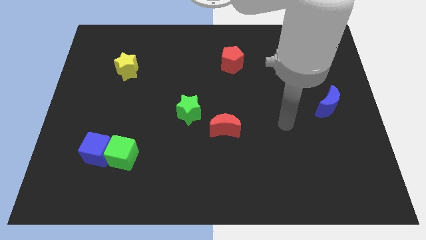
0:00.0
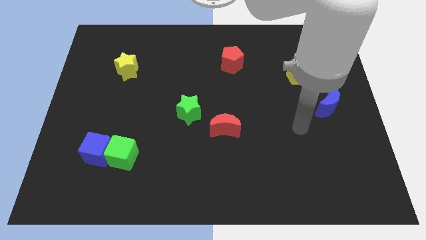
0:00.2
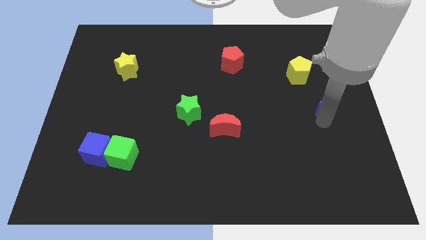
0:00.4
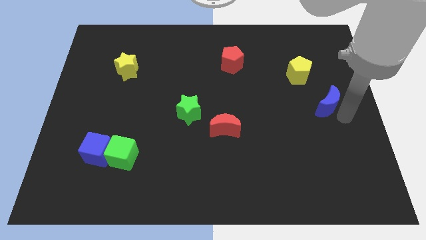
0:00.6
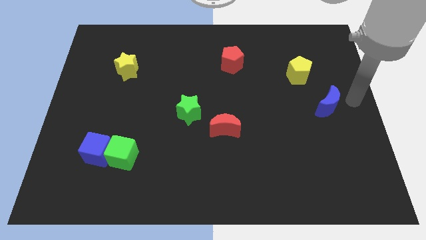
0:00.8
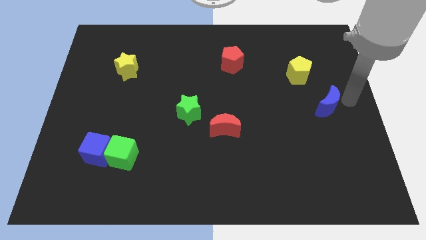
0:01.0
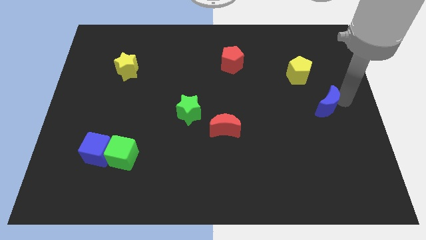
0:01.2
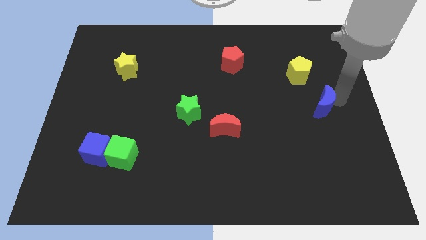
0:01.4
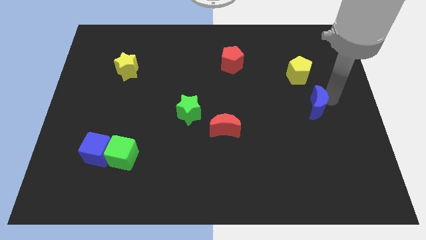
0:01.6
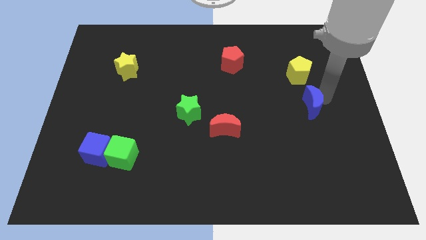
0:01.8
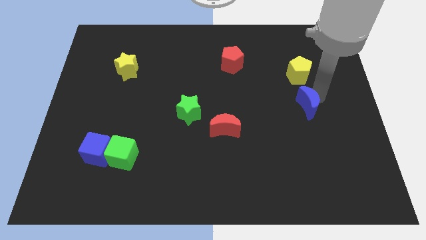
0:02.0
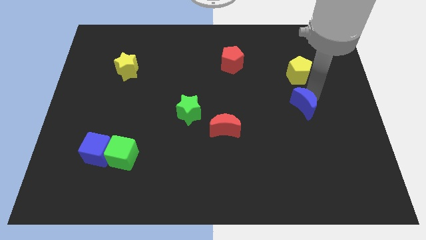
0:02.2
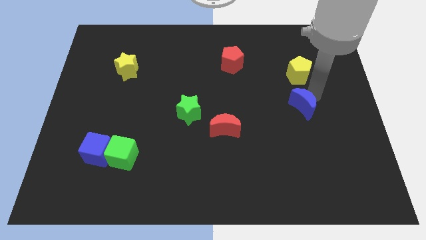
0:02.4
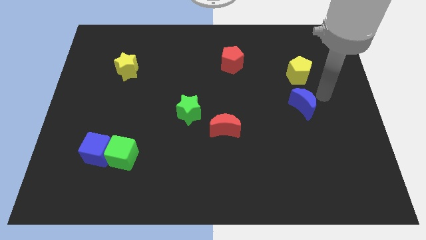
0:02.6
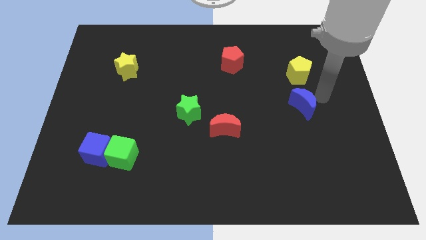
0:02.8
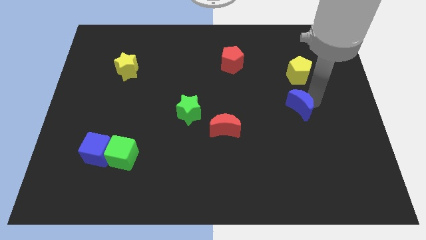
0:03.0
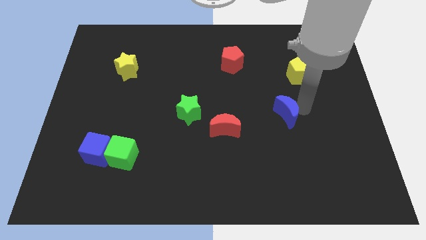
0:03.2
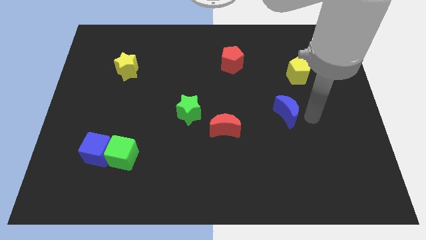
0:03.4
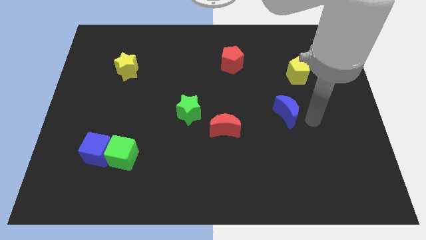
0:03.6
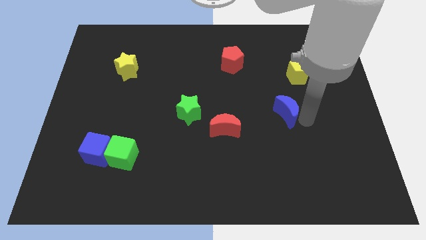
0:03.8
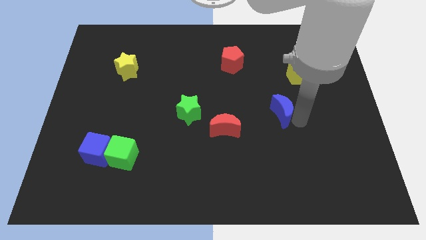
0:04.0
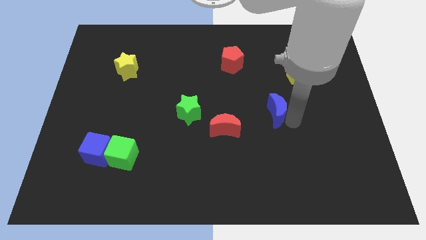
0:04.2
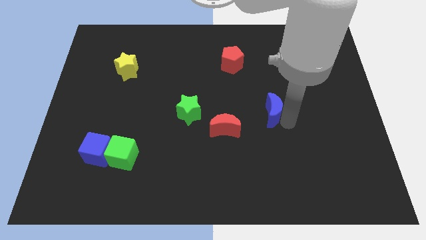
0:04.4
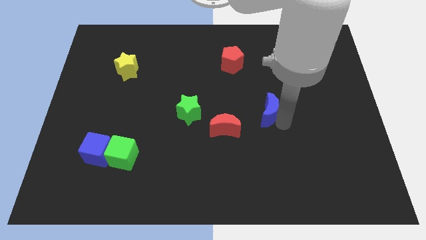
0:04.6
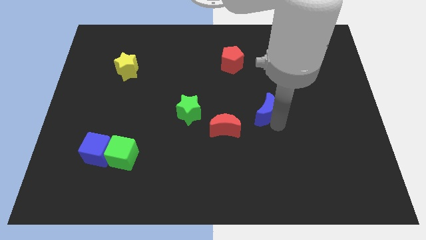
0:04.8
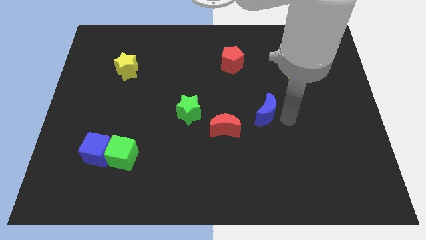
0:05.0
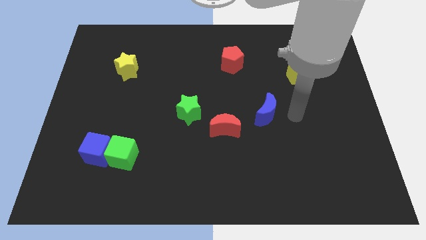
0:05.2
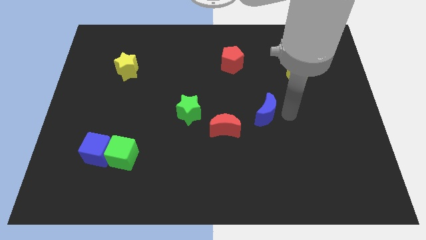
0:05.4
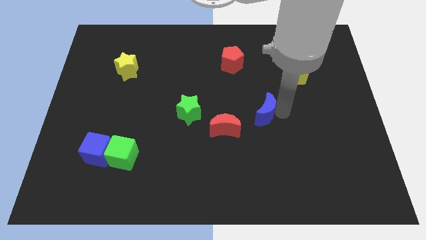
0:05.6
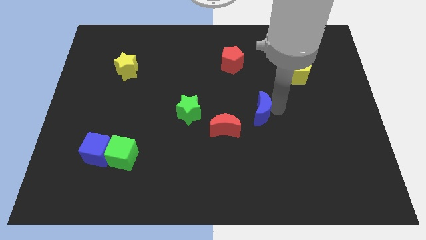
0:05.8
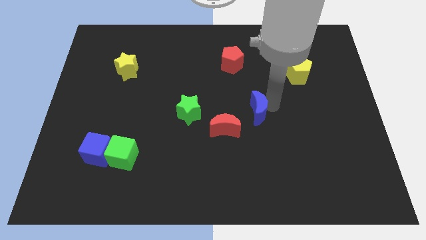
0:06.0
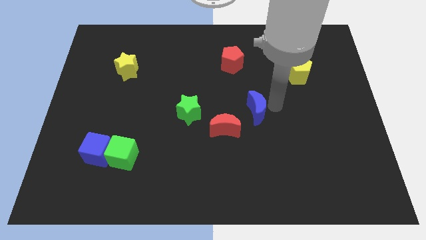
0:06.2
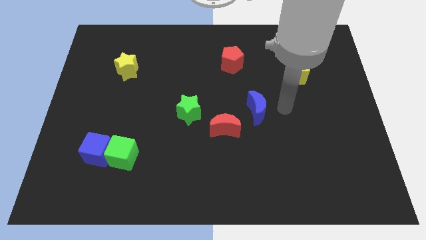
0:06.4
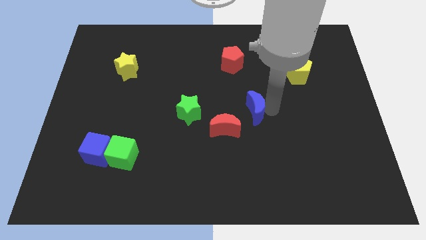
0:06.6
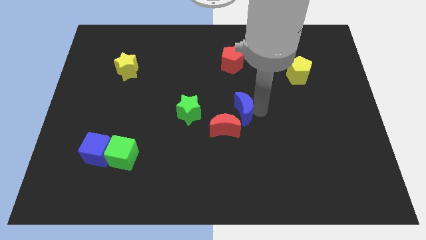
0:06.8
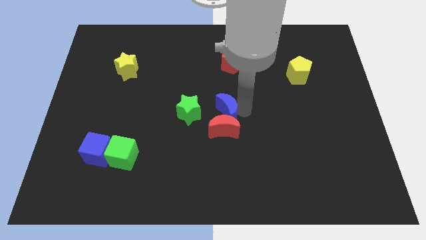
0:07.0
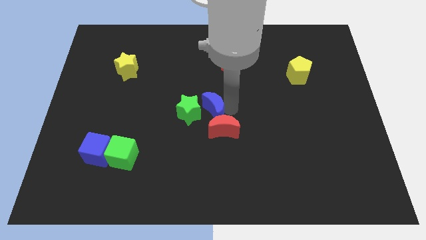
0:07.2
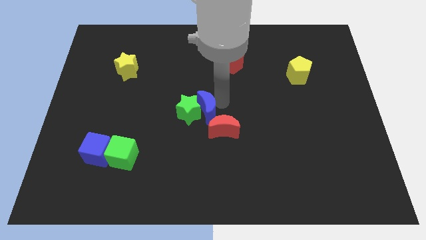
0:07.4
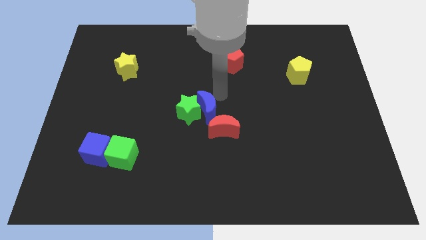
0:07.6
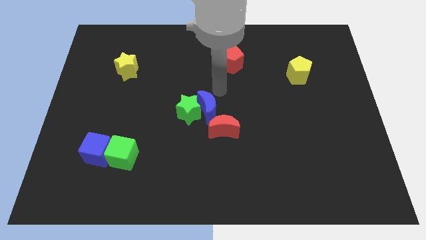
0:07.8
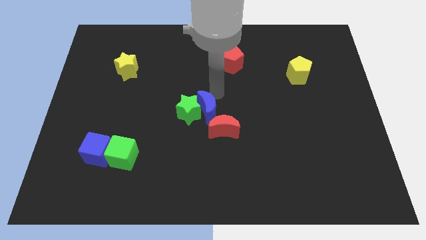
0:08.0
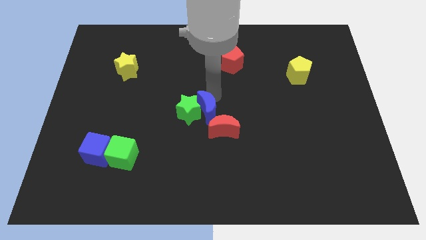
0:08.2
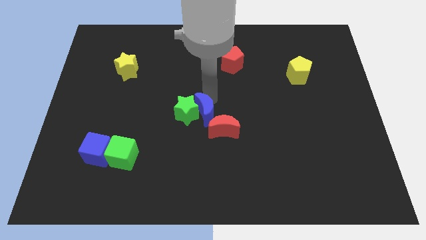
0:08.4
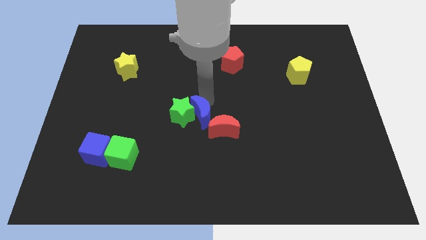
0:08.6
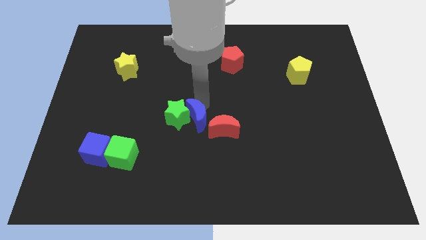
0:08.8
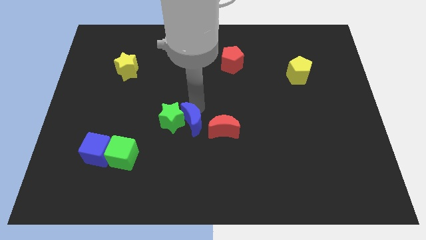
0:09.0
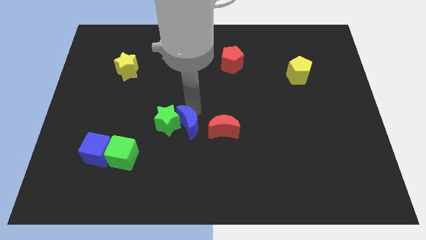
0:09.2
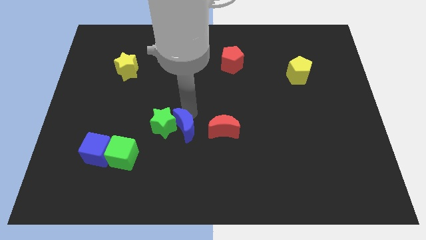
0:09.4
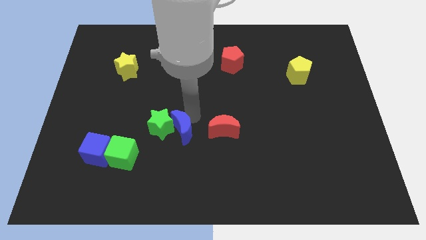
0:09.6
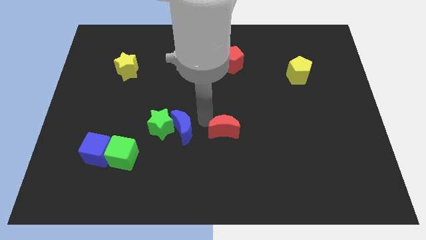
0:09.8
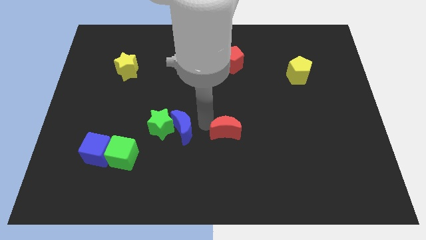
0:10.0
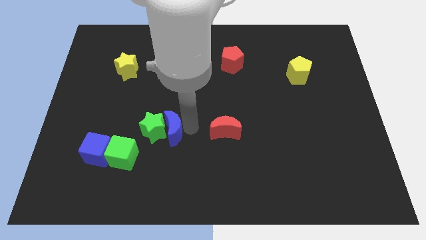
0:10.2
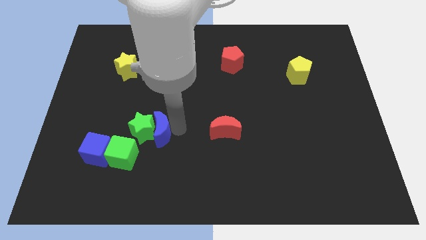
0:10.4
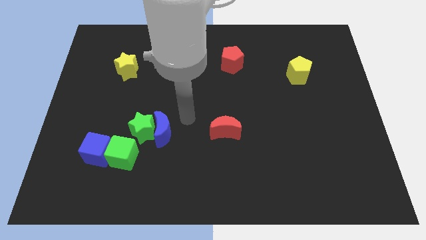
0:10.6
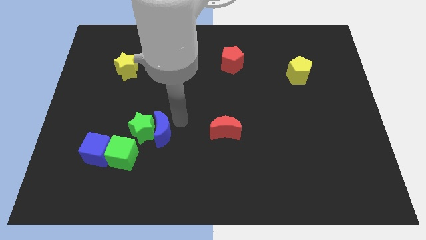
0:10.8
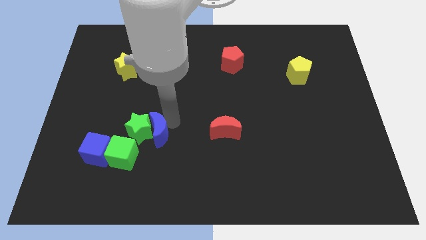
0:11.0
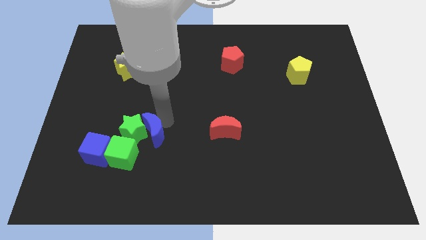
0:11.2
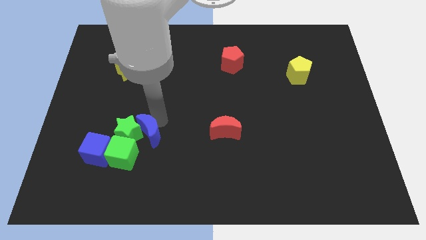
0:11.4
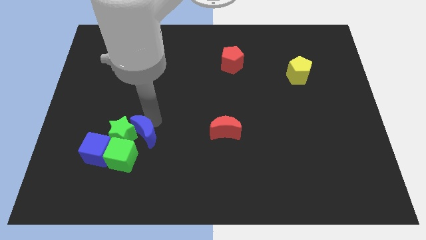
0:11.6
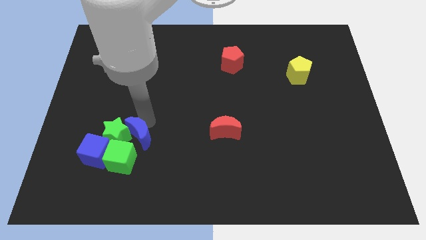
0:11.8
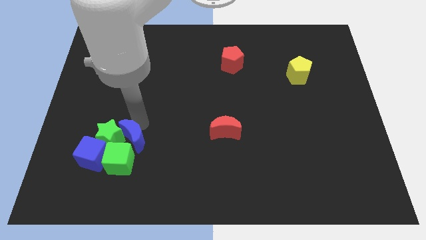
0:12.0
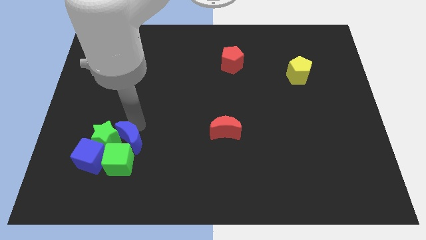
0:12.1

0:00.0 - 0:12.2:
push the blue moon to the green cube

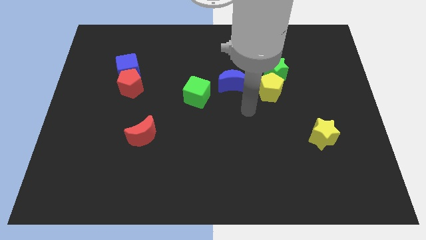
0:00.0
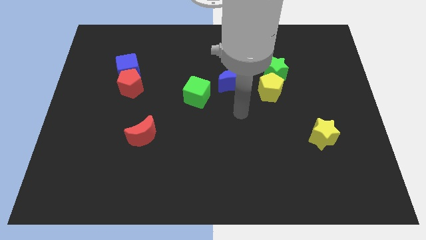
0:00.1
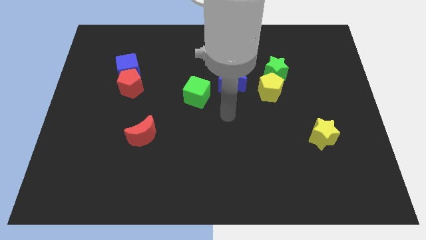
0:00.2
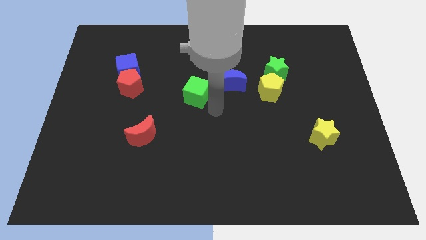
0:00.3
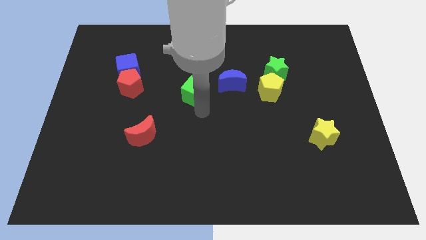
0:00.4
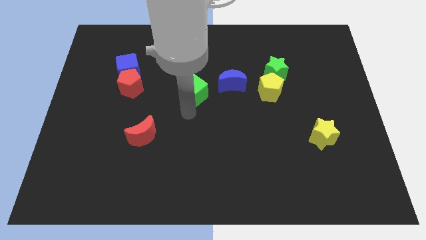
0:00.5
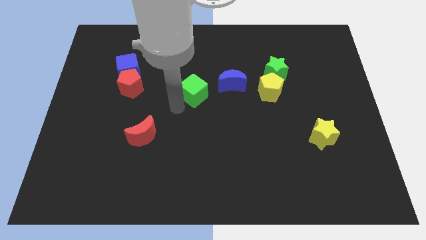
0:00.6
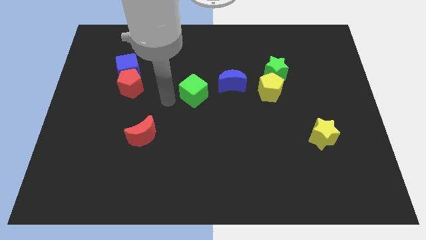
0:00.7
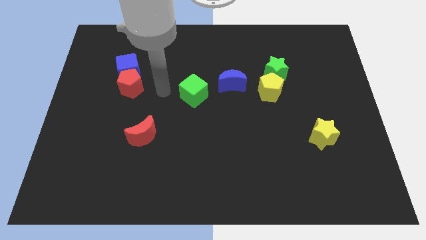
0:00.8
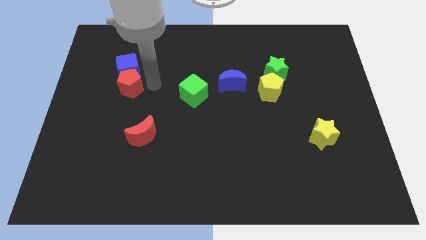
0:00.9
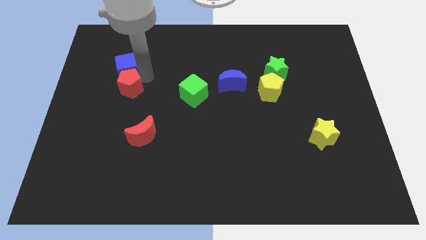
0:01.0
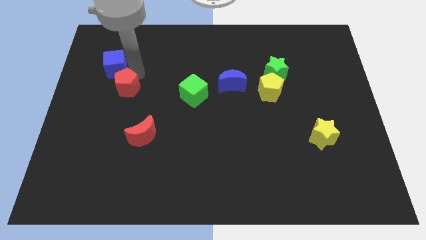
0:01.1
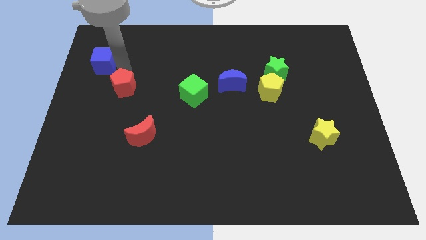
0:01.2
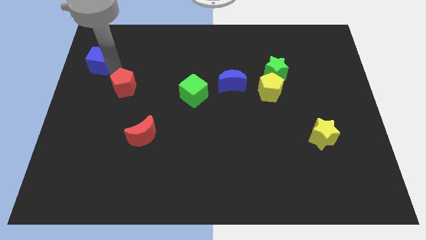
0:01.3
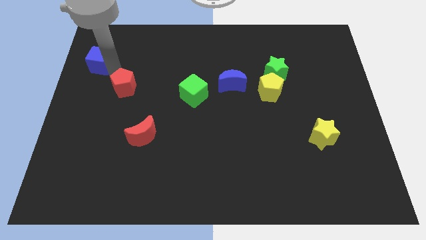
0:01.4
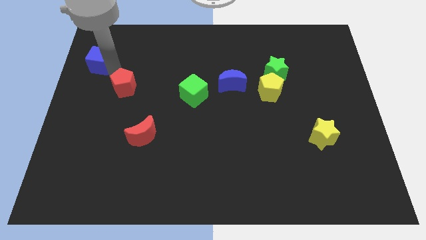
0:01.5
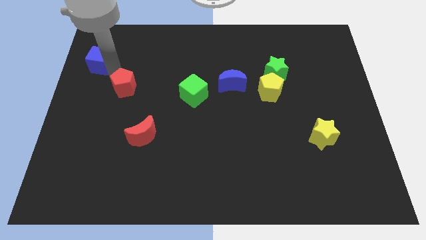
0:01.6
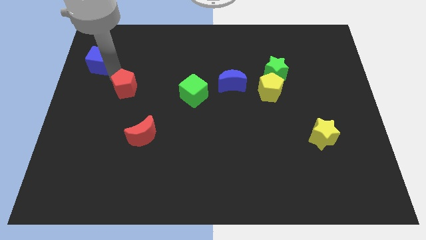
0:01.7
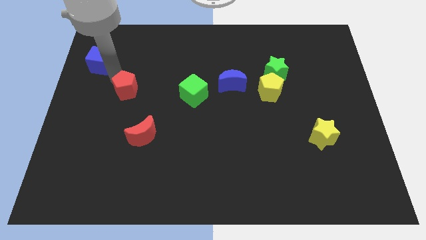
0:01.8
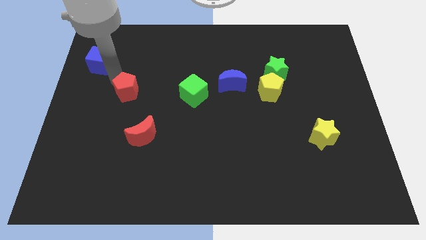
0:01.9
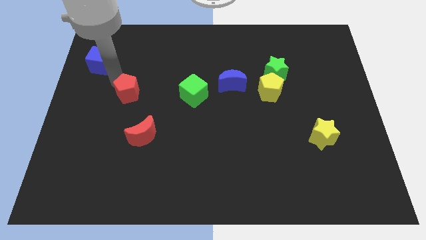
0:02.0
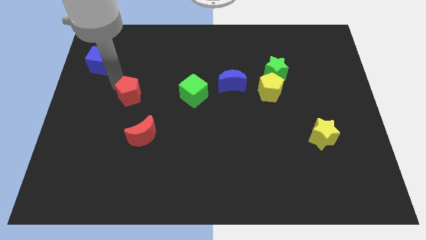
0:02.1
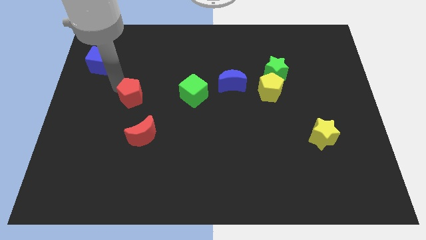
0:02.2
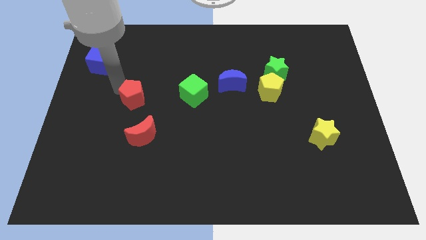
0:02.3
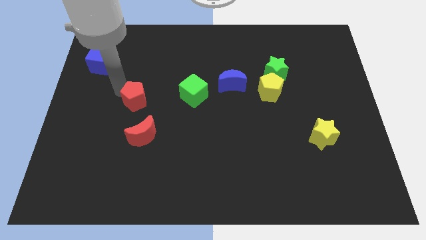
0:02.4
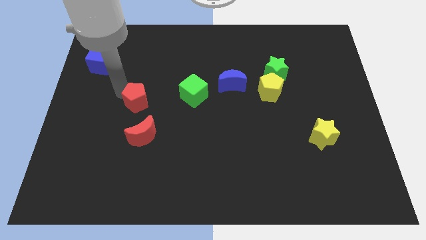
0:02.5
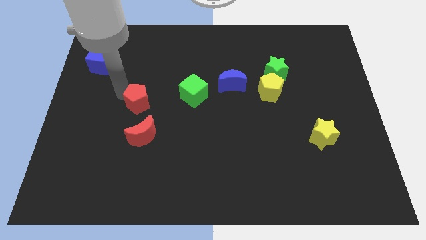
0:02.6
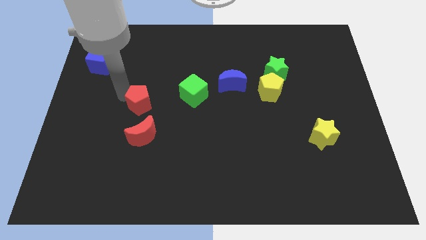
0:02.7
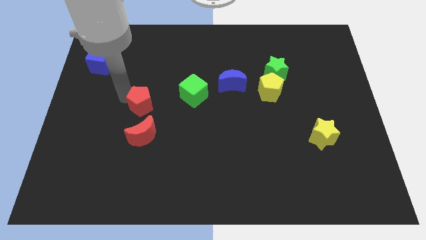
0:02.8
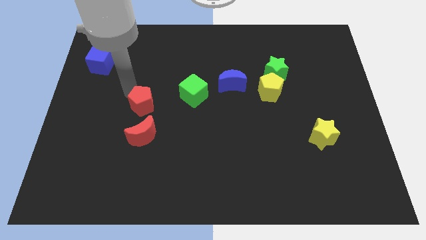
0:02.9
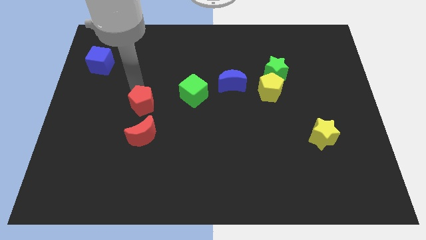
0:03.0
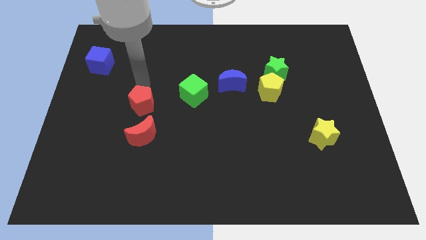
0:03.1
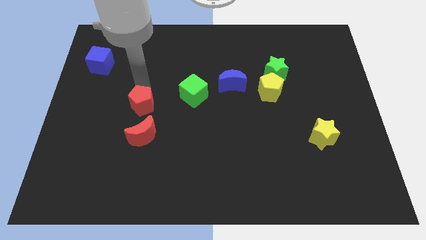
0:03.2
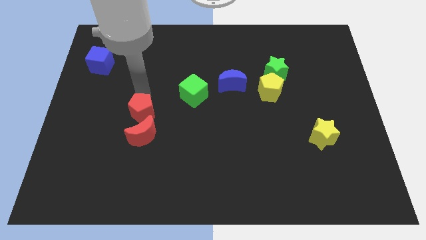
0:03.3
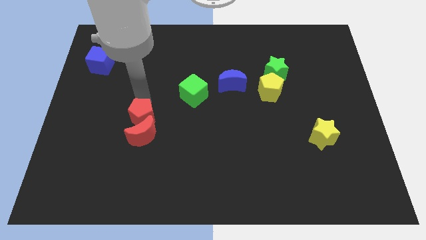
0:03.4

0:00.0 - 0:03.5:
slide the red pentagon towards the red moon
